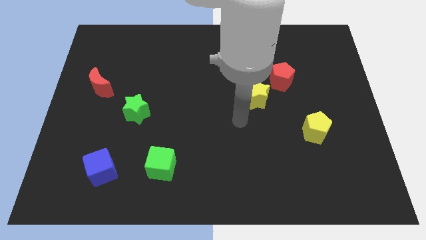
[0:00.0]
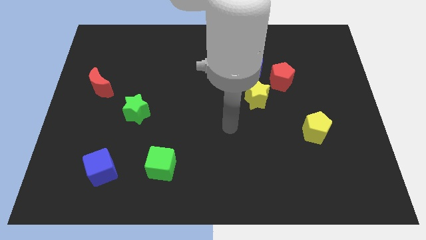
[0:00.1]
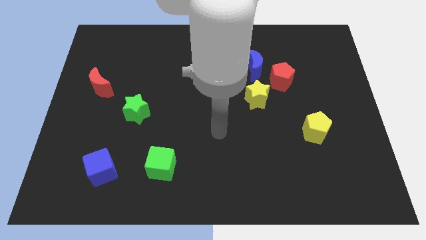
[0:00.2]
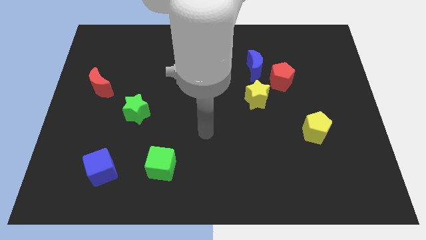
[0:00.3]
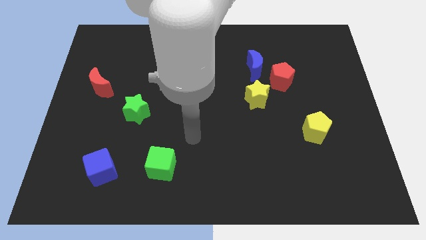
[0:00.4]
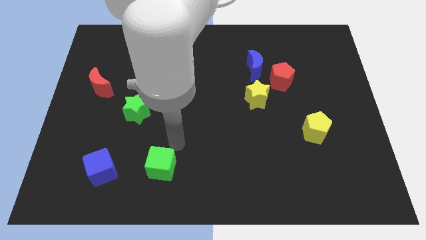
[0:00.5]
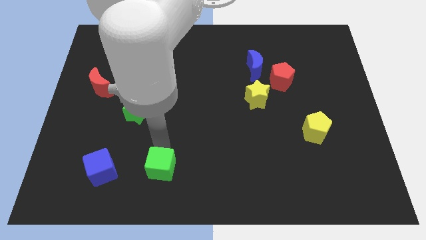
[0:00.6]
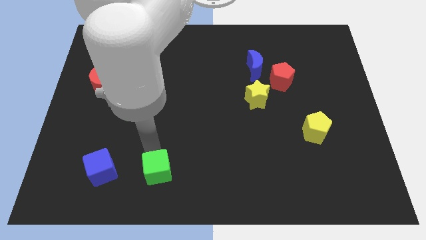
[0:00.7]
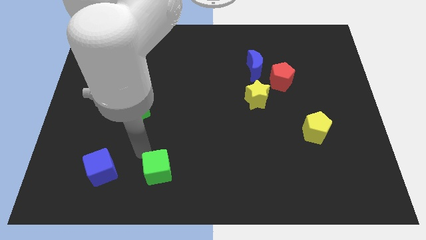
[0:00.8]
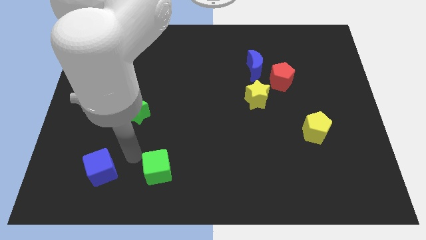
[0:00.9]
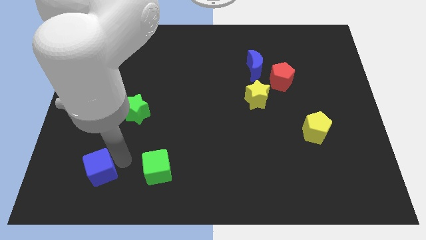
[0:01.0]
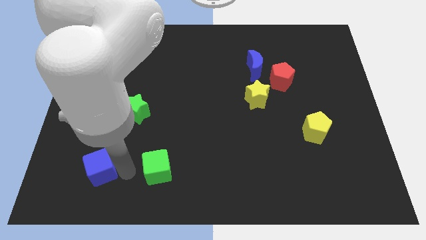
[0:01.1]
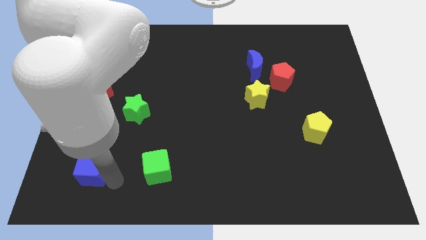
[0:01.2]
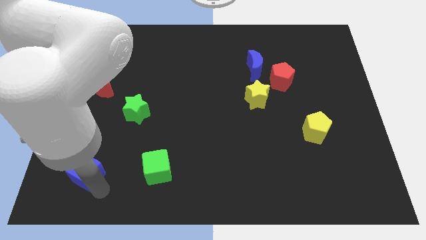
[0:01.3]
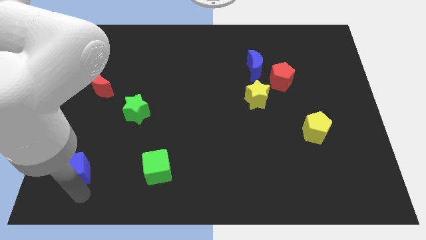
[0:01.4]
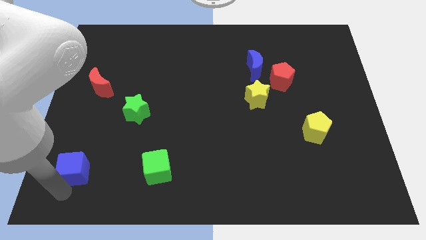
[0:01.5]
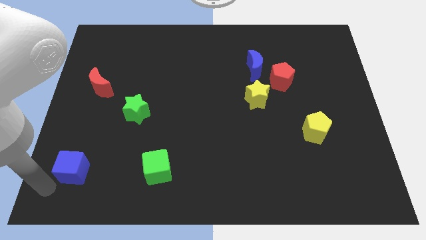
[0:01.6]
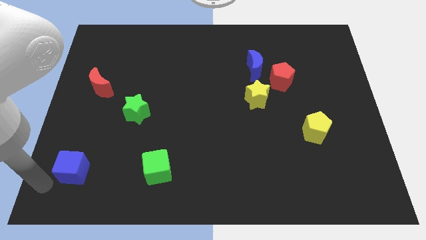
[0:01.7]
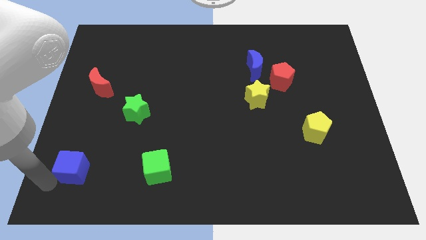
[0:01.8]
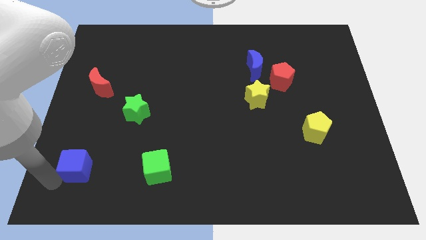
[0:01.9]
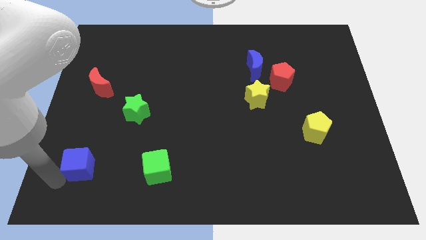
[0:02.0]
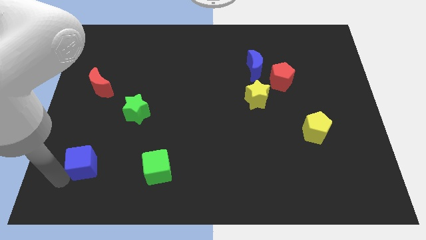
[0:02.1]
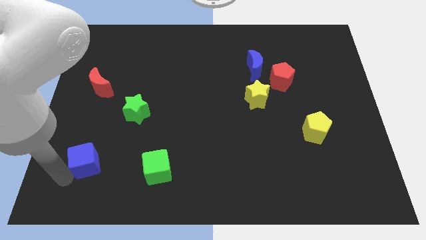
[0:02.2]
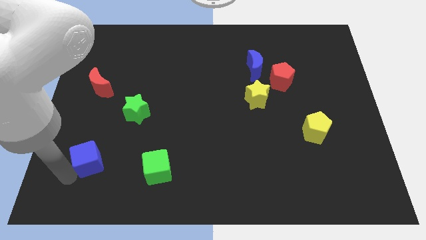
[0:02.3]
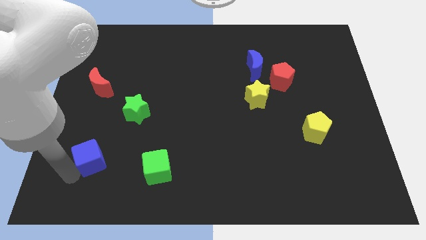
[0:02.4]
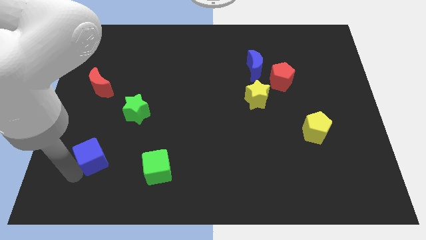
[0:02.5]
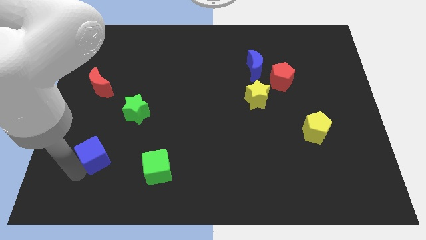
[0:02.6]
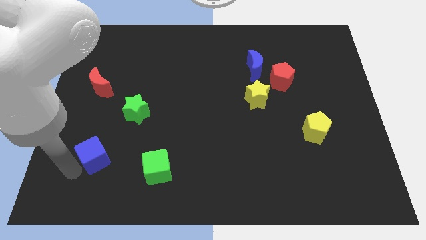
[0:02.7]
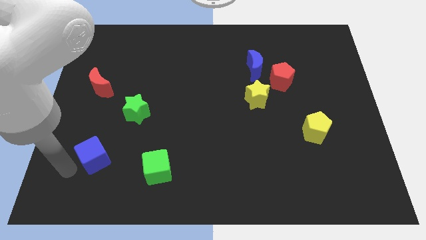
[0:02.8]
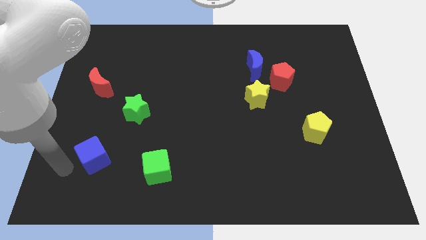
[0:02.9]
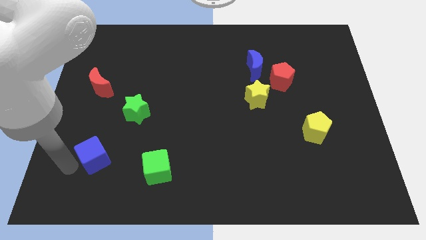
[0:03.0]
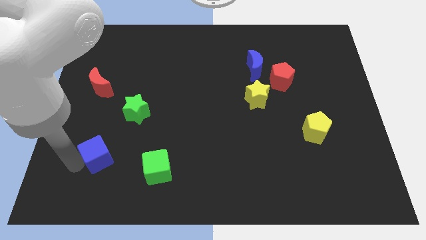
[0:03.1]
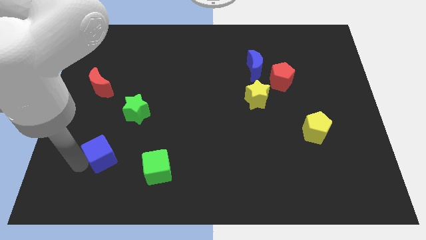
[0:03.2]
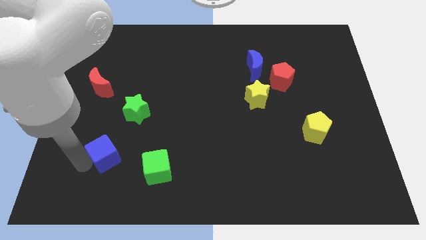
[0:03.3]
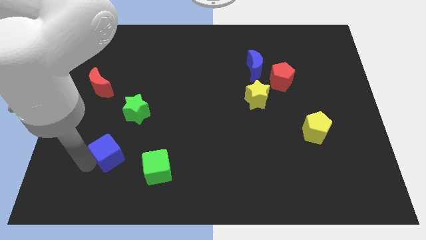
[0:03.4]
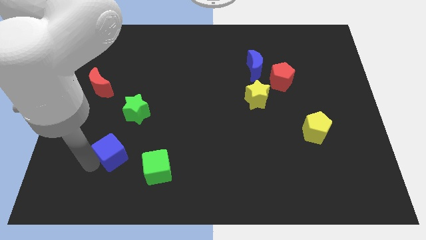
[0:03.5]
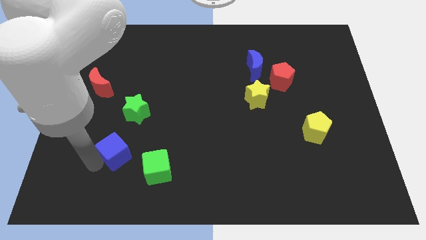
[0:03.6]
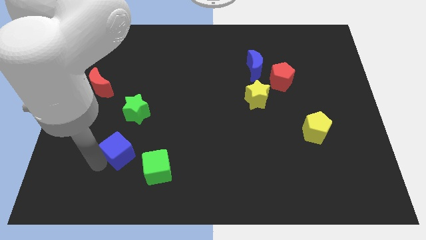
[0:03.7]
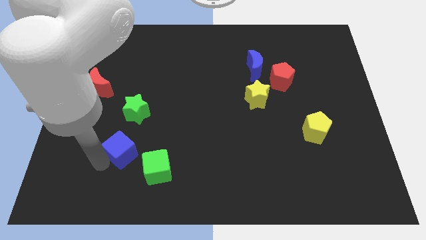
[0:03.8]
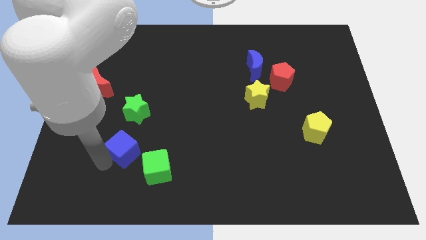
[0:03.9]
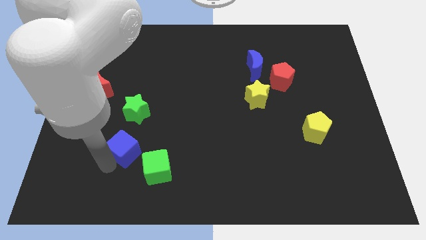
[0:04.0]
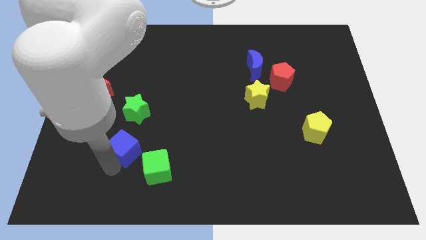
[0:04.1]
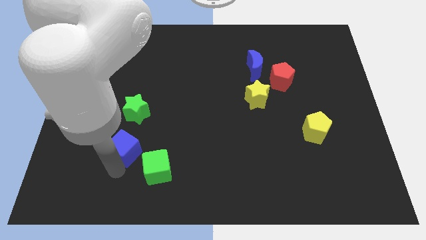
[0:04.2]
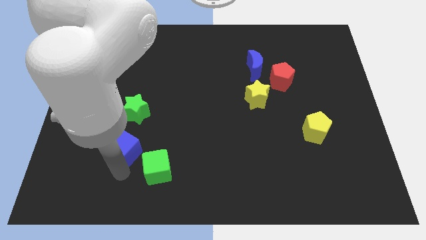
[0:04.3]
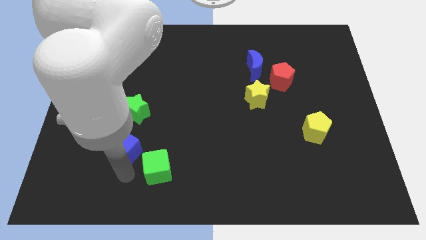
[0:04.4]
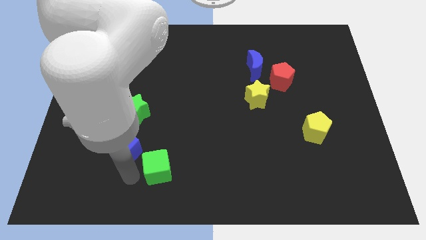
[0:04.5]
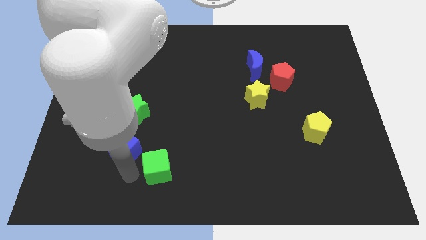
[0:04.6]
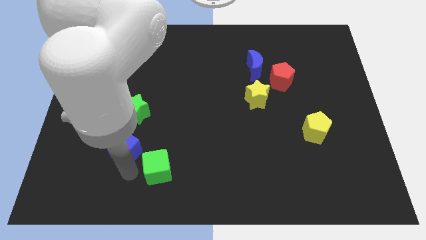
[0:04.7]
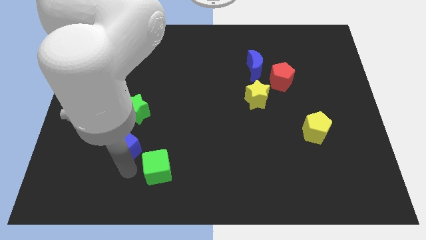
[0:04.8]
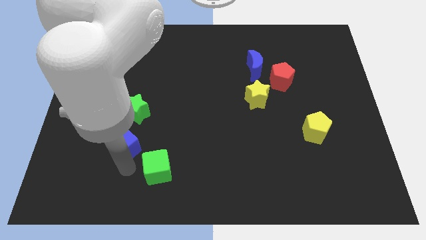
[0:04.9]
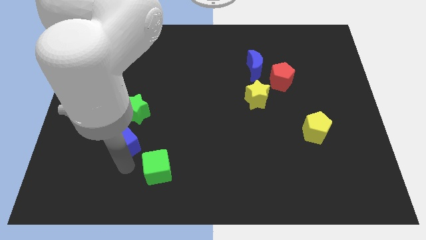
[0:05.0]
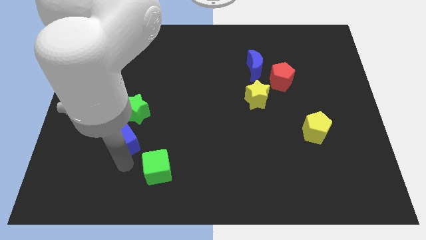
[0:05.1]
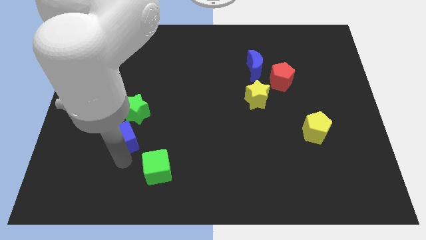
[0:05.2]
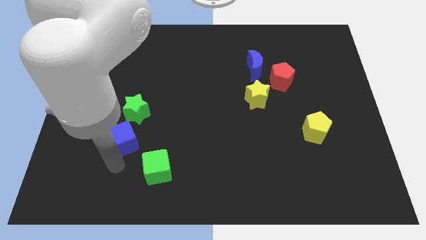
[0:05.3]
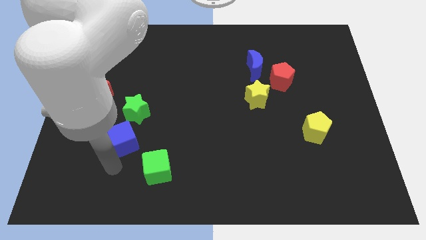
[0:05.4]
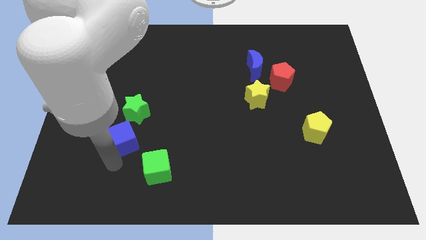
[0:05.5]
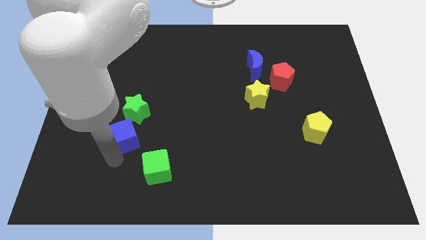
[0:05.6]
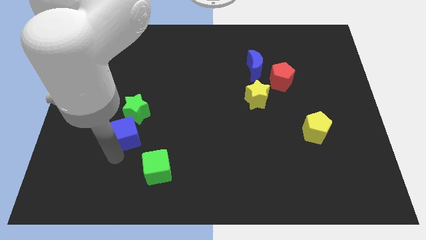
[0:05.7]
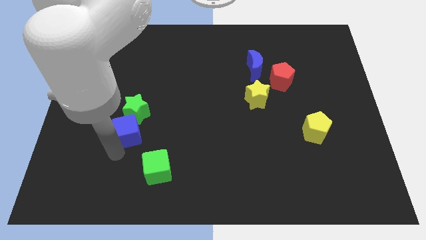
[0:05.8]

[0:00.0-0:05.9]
put the blue cube close to the green star

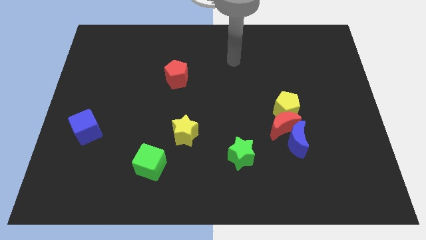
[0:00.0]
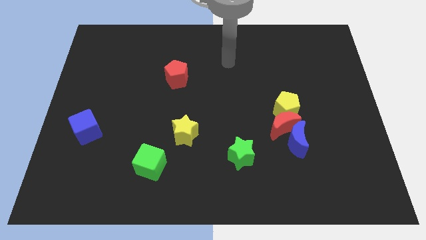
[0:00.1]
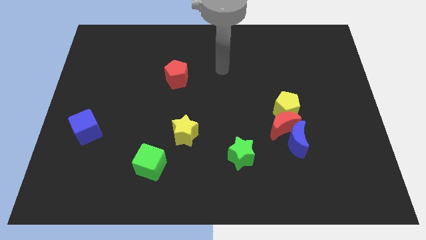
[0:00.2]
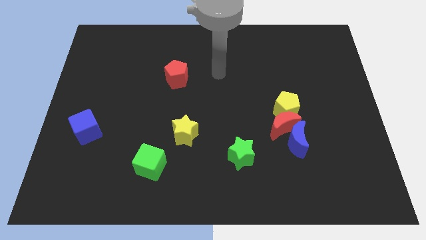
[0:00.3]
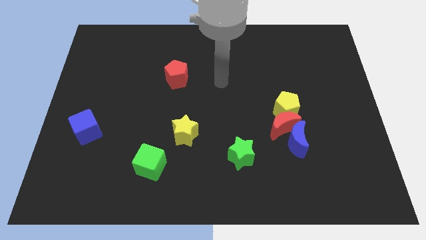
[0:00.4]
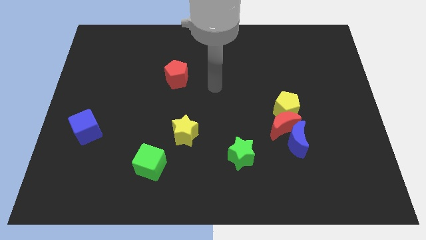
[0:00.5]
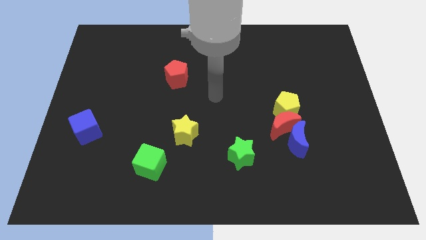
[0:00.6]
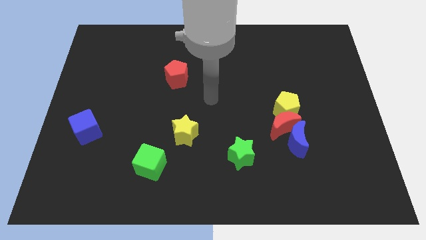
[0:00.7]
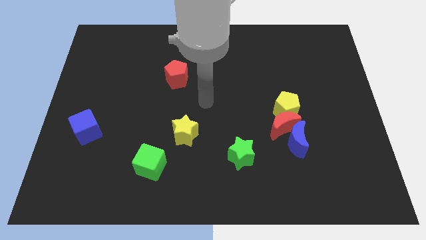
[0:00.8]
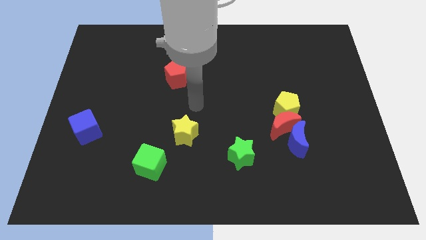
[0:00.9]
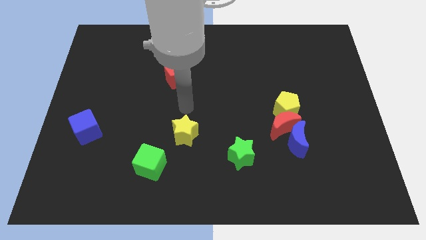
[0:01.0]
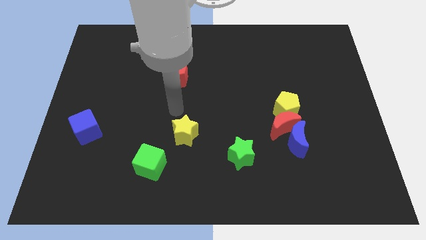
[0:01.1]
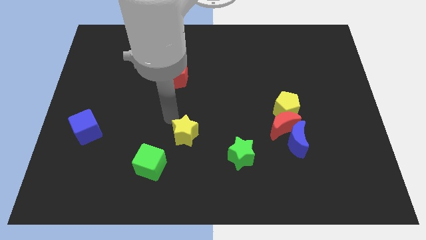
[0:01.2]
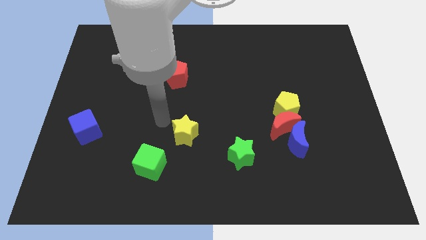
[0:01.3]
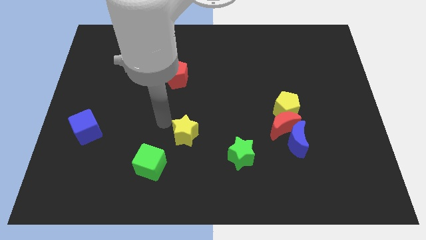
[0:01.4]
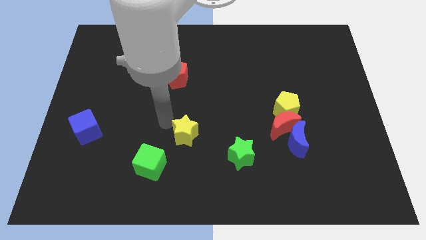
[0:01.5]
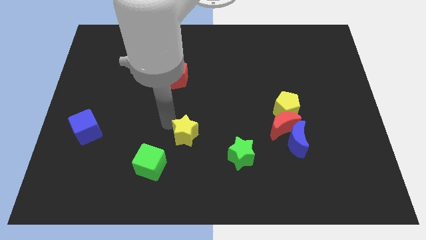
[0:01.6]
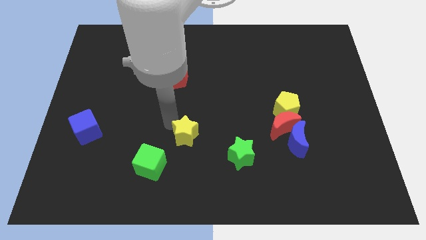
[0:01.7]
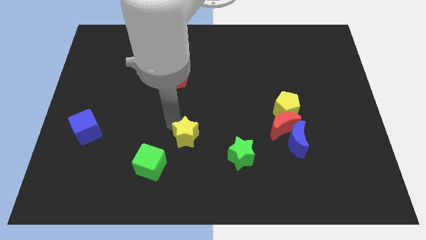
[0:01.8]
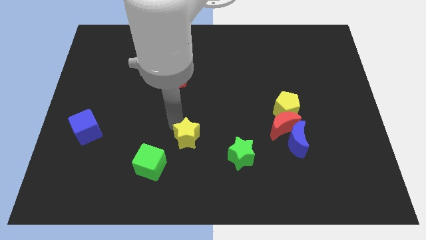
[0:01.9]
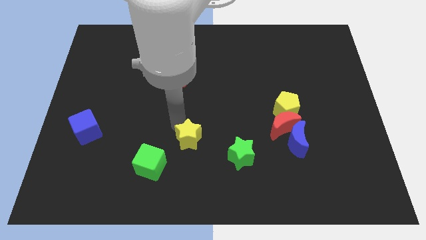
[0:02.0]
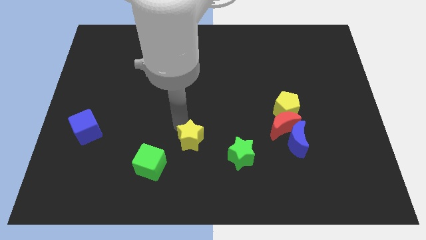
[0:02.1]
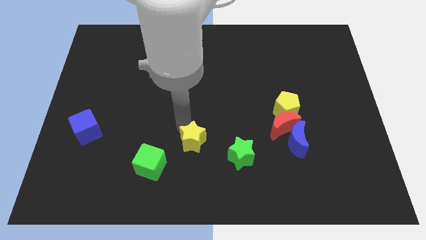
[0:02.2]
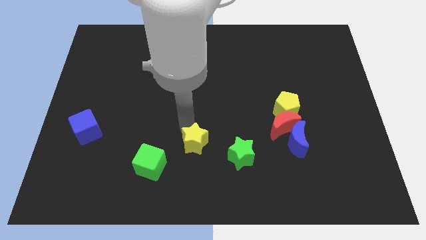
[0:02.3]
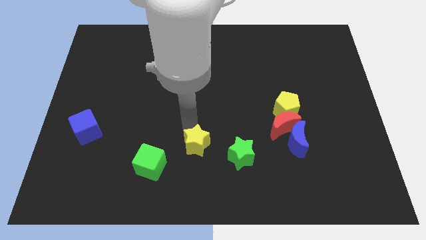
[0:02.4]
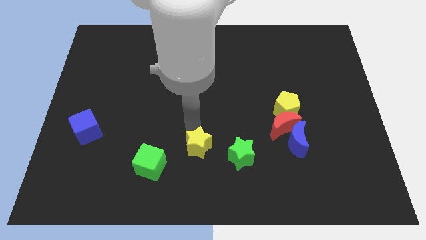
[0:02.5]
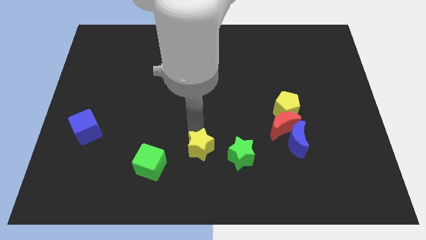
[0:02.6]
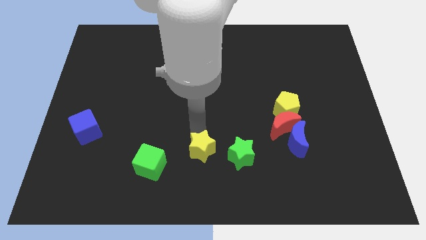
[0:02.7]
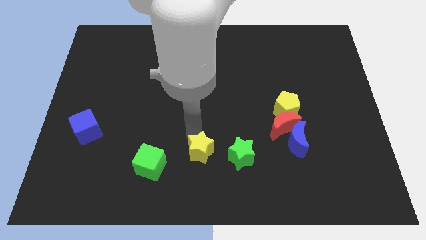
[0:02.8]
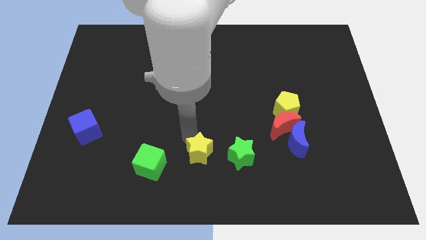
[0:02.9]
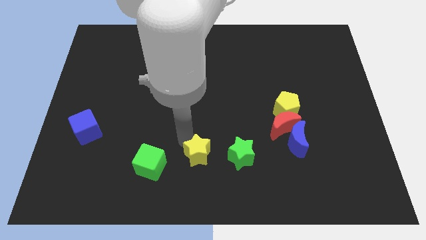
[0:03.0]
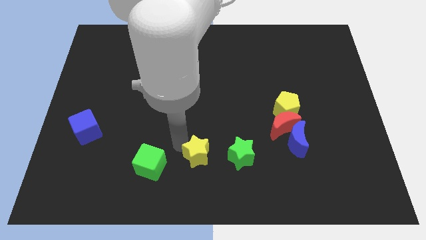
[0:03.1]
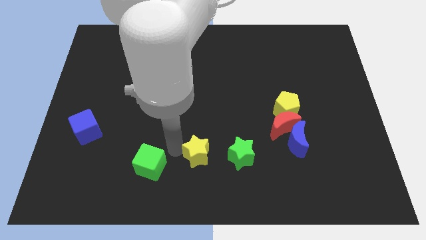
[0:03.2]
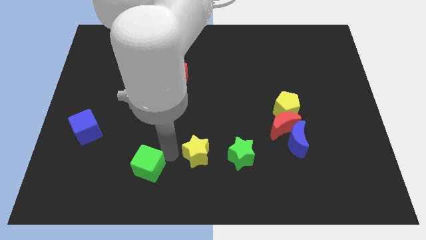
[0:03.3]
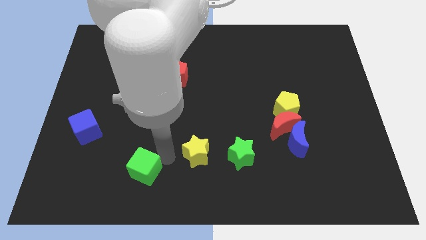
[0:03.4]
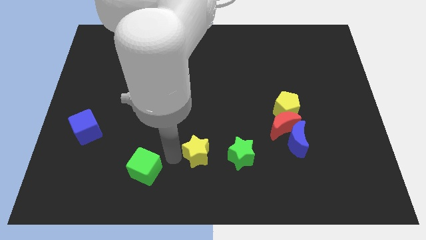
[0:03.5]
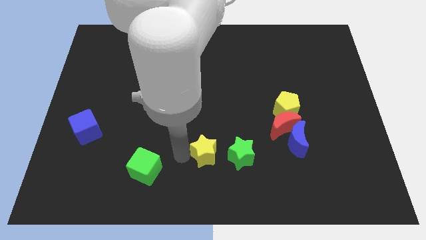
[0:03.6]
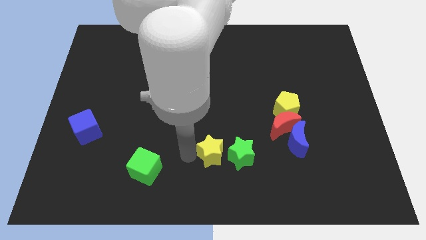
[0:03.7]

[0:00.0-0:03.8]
put the yellow star next to the green star
